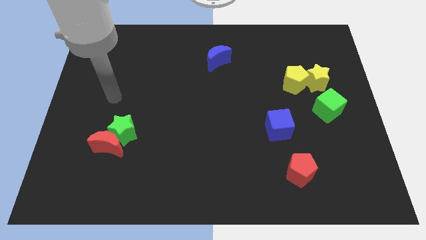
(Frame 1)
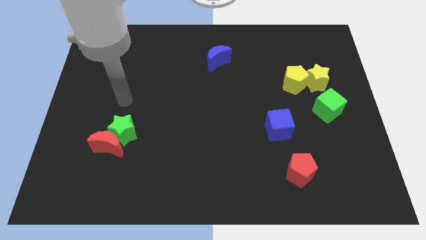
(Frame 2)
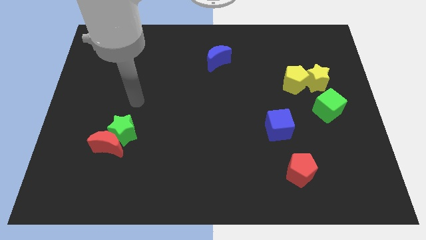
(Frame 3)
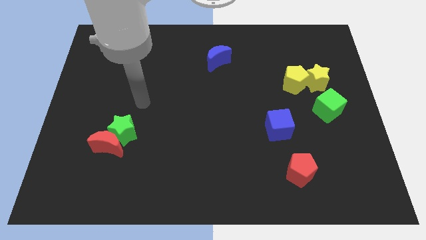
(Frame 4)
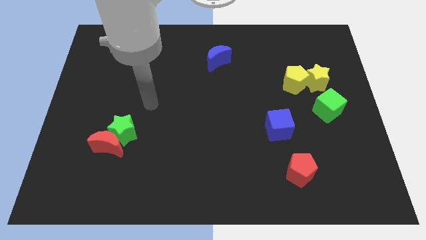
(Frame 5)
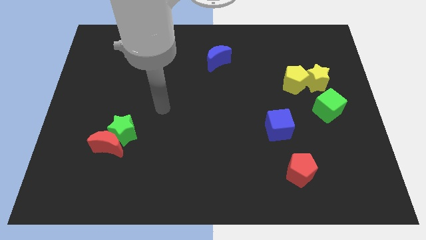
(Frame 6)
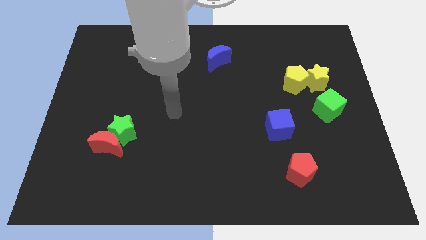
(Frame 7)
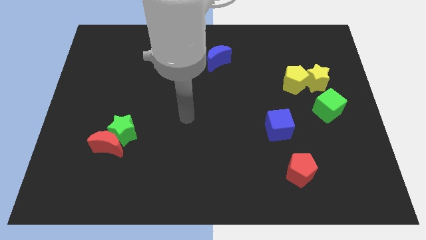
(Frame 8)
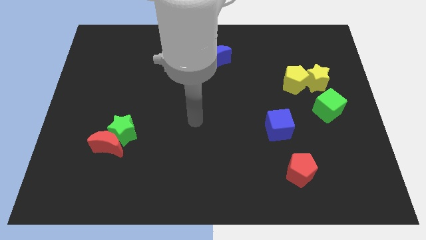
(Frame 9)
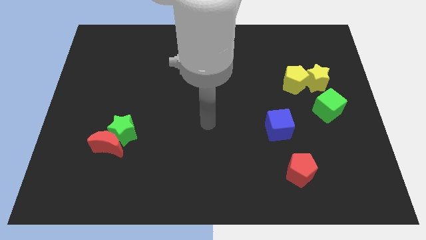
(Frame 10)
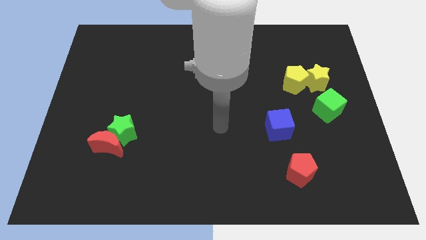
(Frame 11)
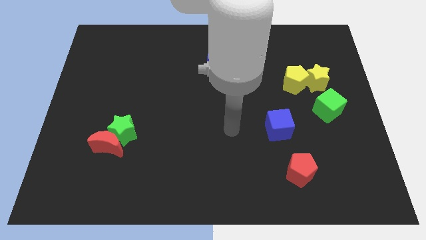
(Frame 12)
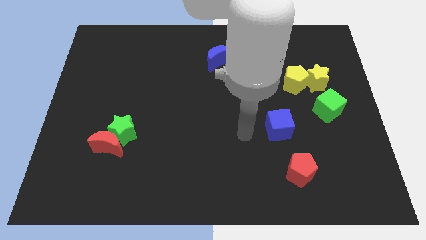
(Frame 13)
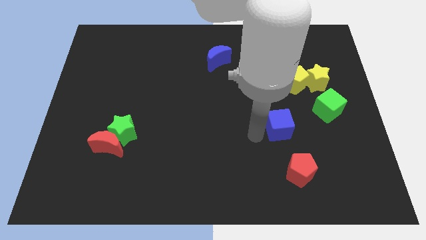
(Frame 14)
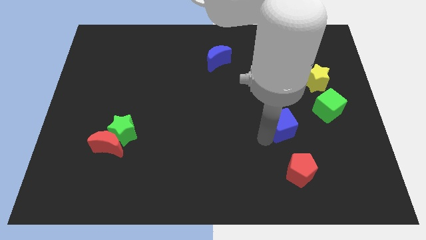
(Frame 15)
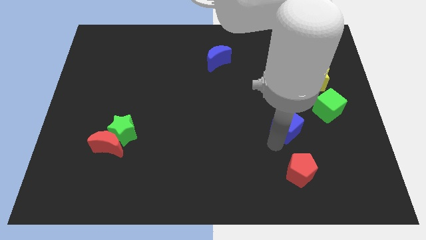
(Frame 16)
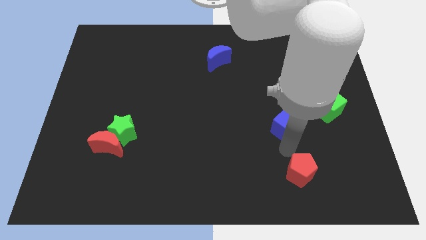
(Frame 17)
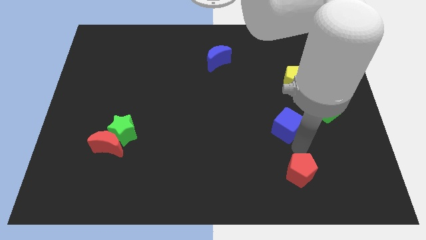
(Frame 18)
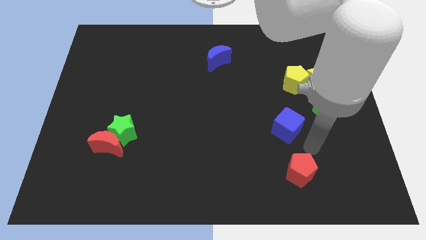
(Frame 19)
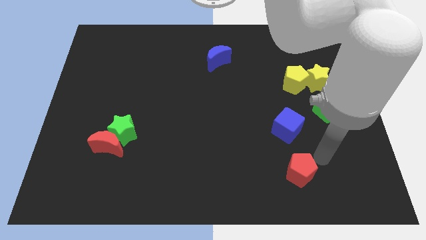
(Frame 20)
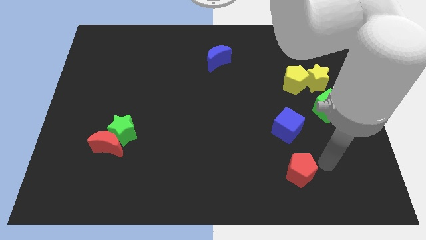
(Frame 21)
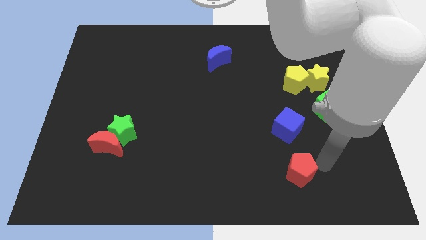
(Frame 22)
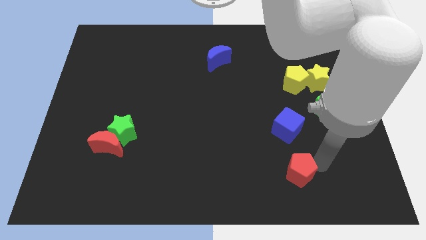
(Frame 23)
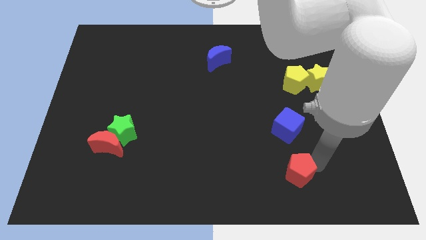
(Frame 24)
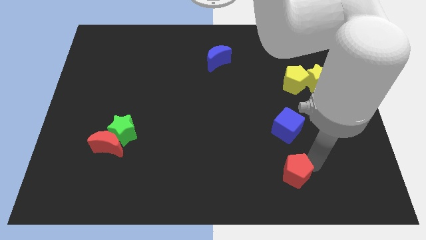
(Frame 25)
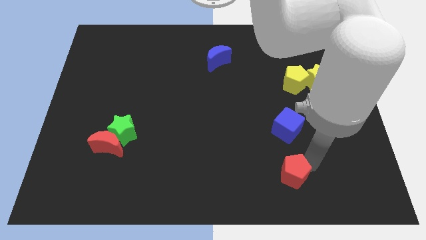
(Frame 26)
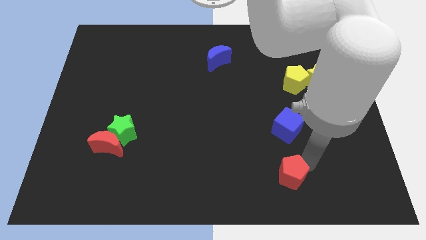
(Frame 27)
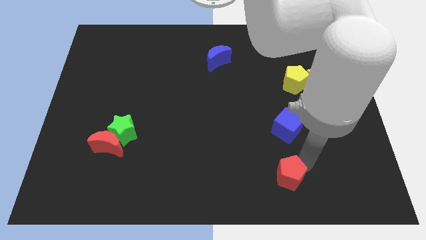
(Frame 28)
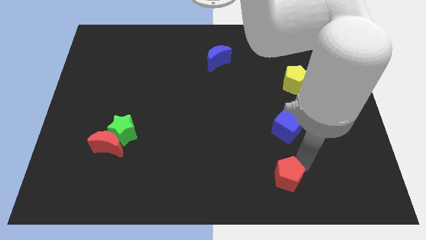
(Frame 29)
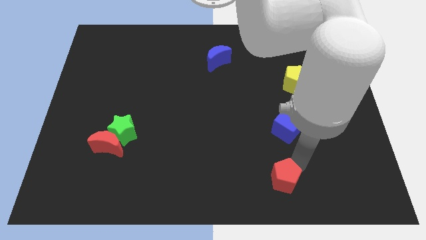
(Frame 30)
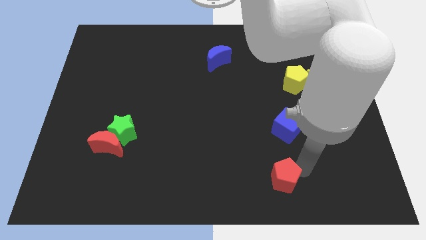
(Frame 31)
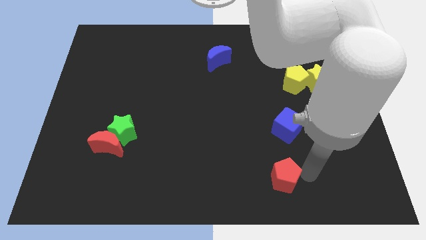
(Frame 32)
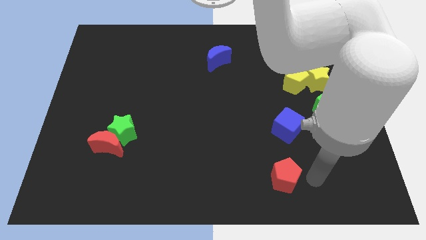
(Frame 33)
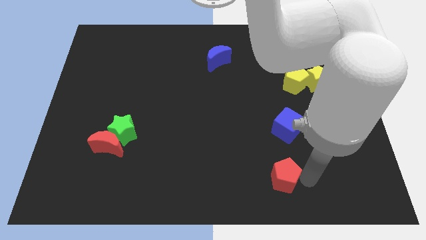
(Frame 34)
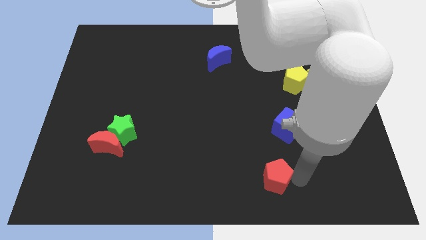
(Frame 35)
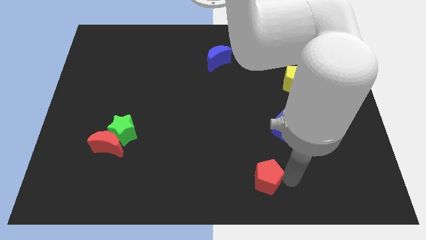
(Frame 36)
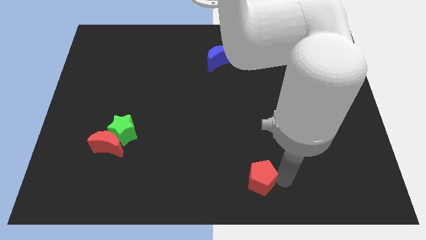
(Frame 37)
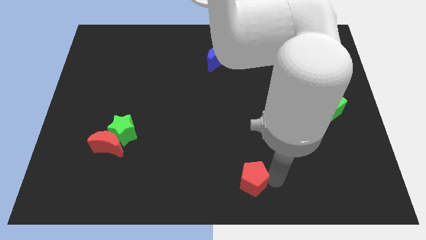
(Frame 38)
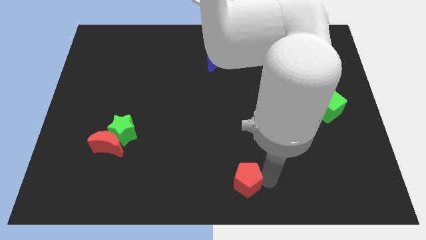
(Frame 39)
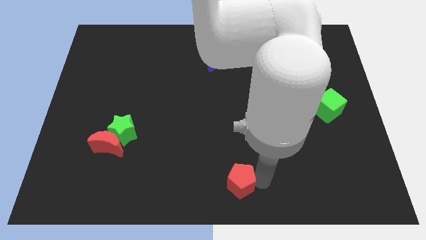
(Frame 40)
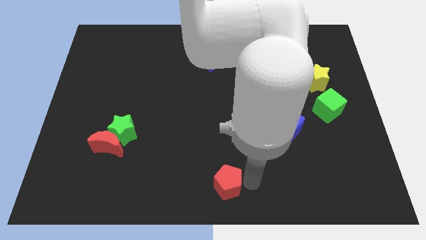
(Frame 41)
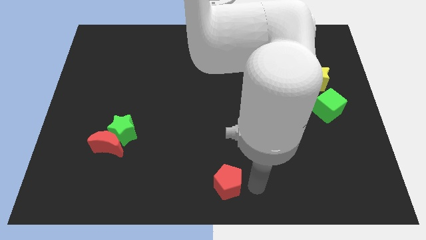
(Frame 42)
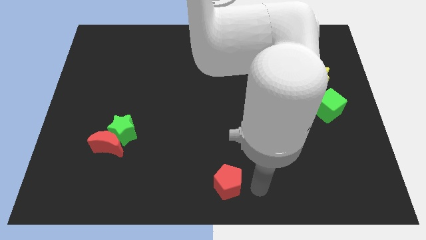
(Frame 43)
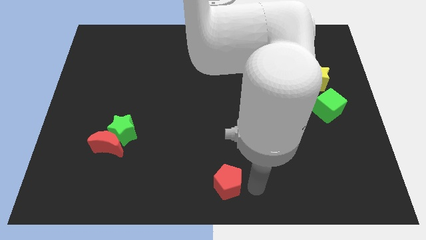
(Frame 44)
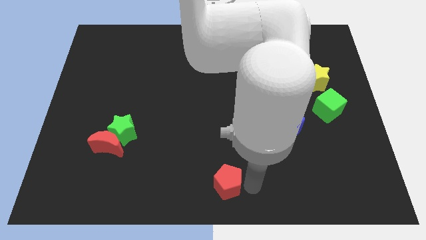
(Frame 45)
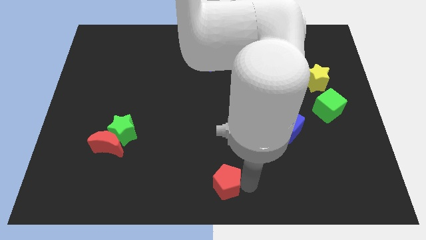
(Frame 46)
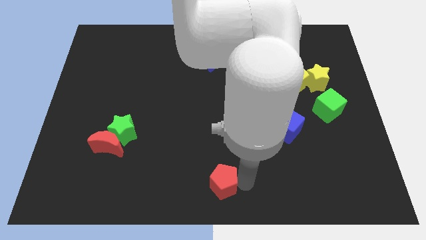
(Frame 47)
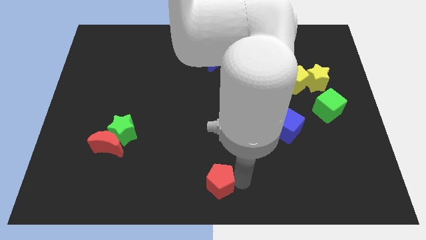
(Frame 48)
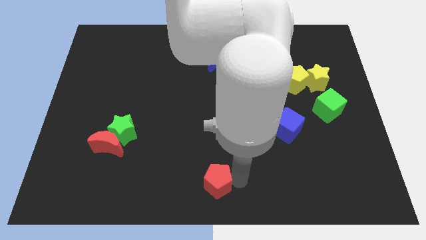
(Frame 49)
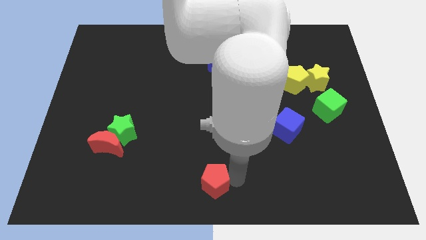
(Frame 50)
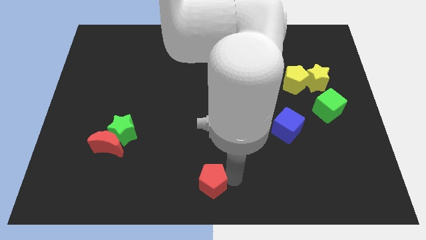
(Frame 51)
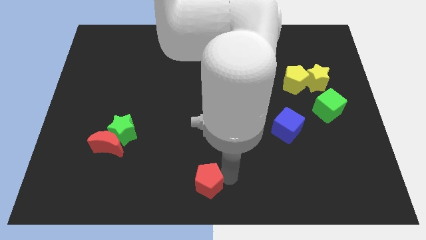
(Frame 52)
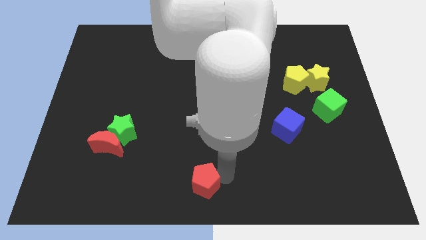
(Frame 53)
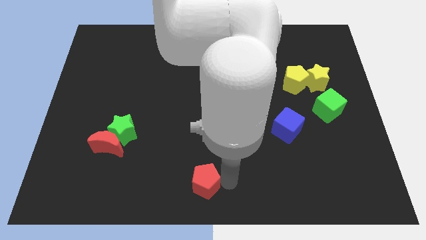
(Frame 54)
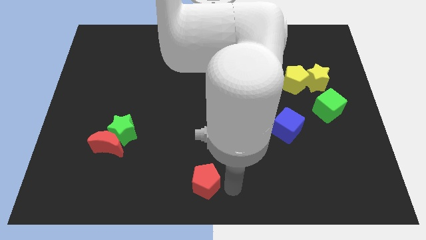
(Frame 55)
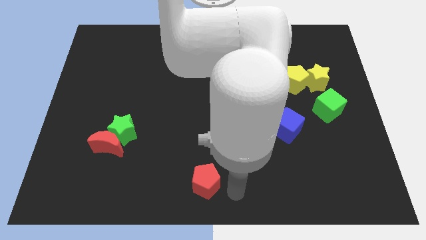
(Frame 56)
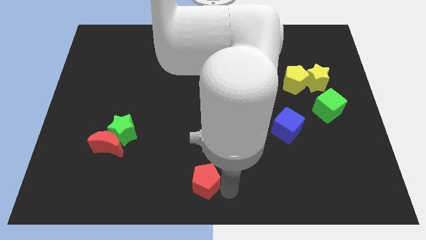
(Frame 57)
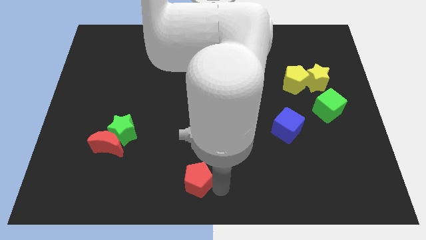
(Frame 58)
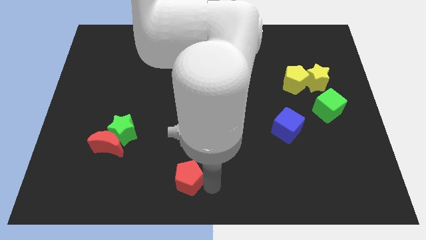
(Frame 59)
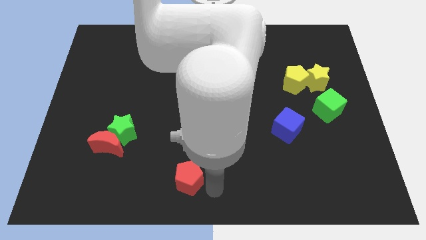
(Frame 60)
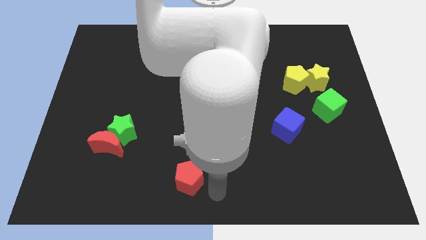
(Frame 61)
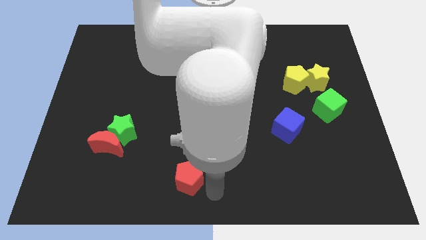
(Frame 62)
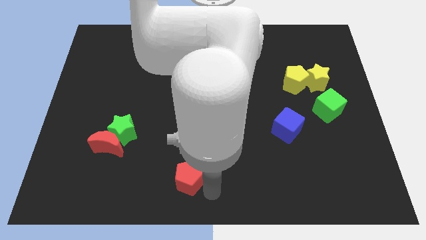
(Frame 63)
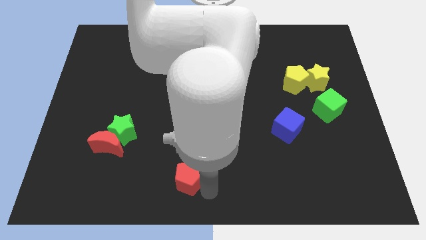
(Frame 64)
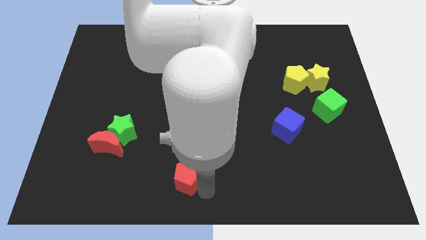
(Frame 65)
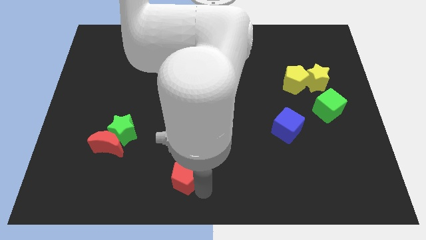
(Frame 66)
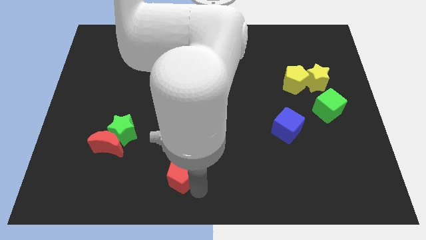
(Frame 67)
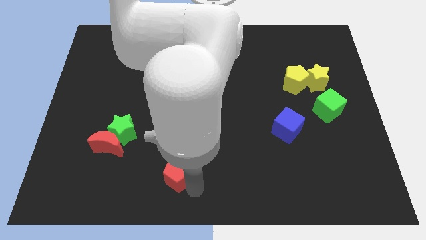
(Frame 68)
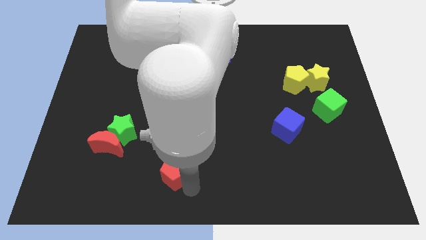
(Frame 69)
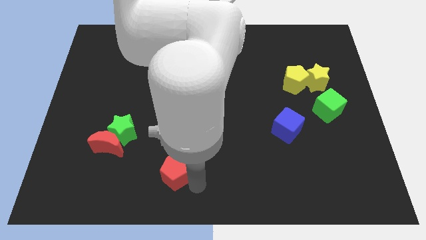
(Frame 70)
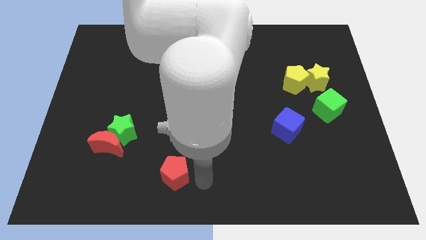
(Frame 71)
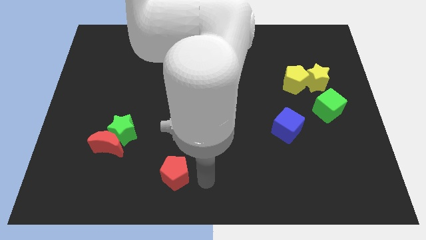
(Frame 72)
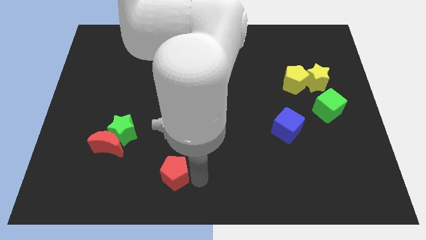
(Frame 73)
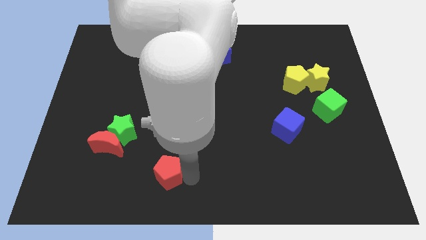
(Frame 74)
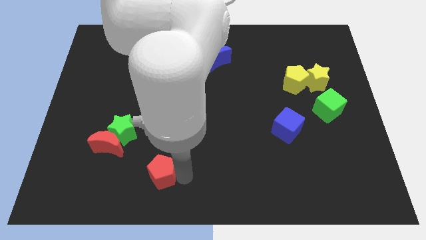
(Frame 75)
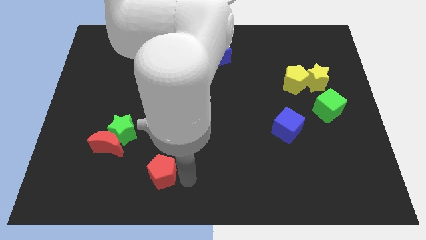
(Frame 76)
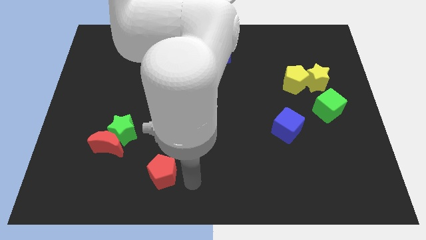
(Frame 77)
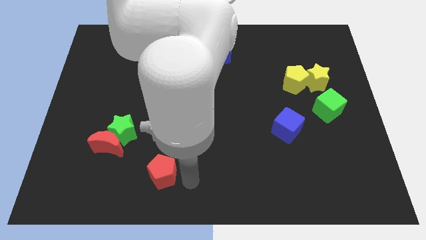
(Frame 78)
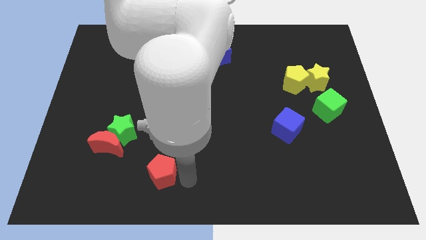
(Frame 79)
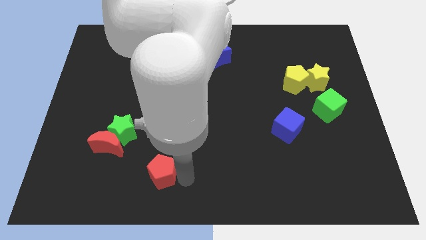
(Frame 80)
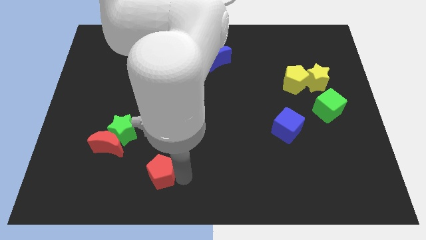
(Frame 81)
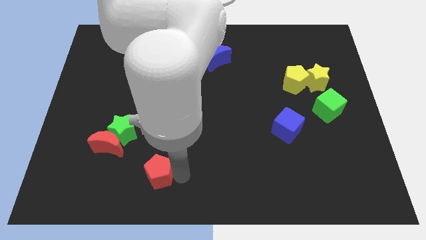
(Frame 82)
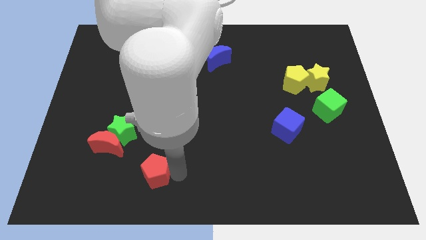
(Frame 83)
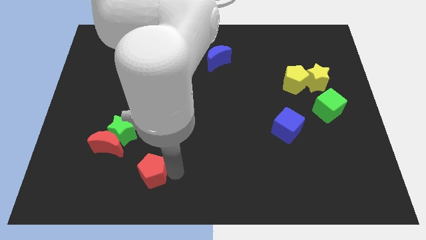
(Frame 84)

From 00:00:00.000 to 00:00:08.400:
push the red pentagon to the bottom right side of the red moon
